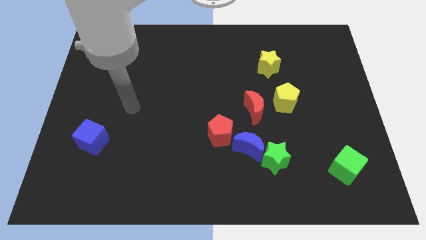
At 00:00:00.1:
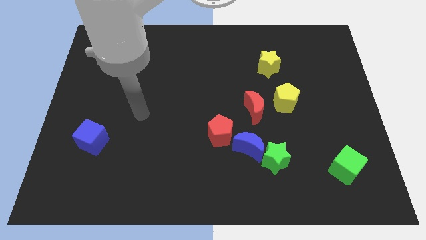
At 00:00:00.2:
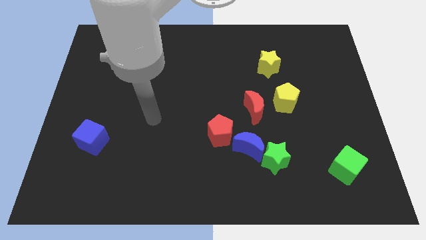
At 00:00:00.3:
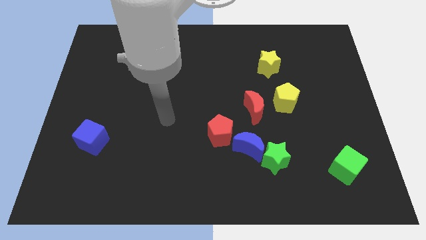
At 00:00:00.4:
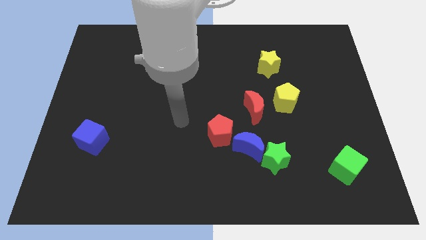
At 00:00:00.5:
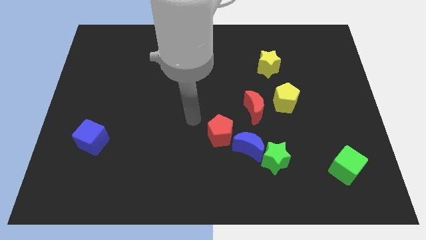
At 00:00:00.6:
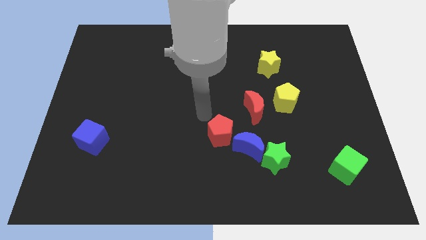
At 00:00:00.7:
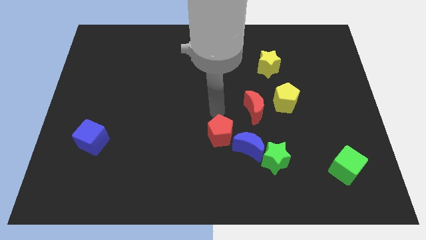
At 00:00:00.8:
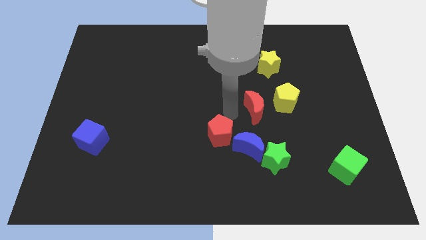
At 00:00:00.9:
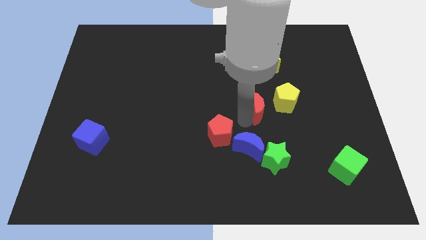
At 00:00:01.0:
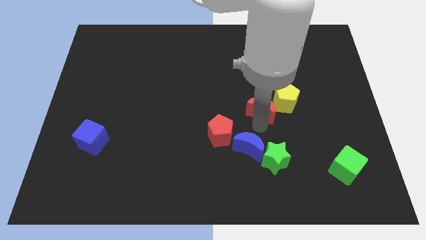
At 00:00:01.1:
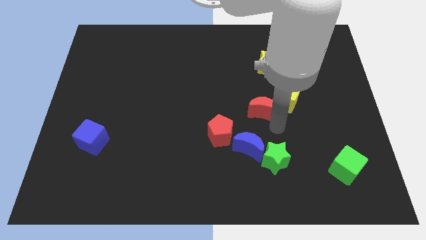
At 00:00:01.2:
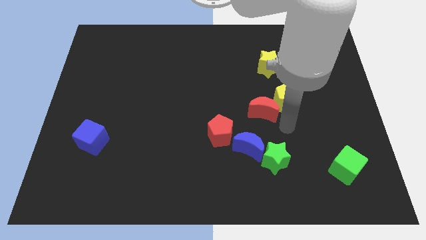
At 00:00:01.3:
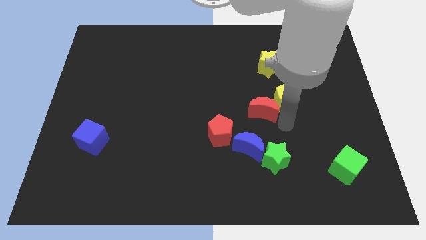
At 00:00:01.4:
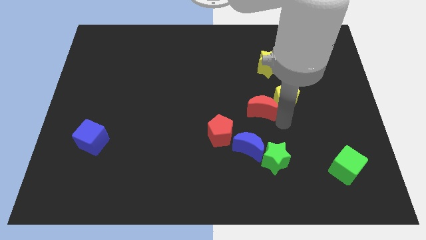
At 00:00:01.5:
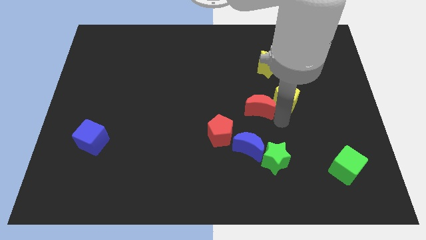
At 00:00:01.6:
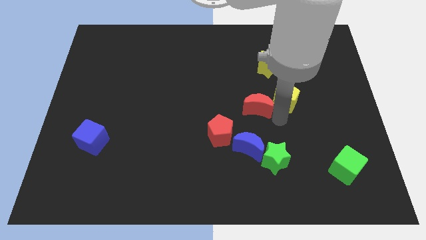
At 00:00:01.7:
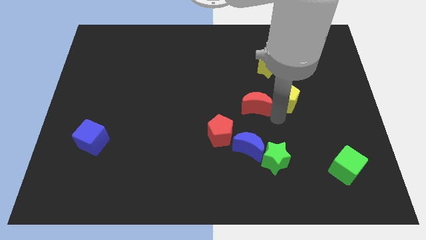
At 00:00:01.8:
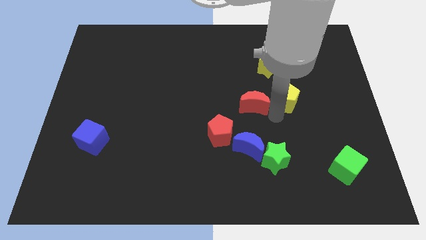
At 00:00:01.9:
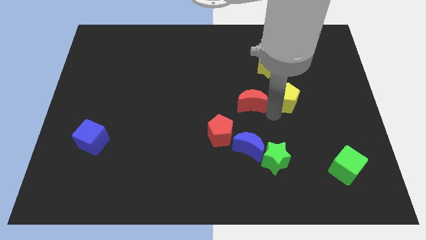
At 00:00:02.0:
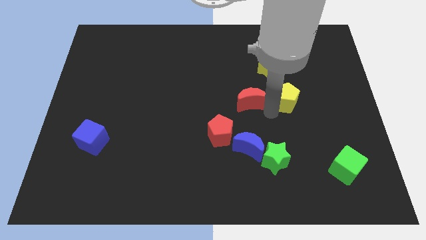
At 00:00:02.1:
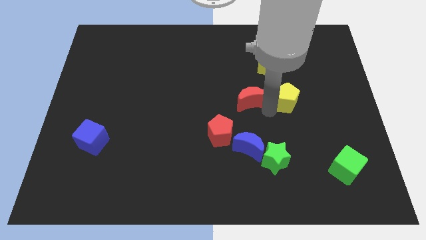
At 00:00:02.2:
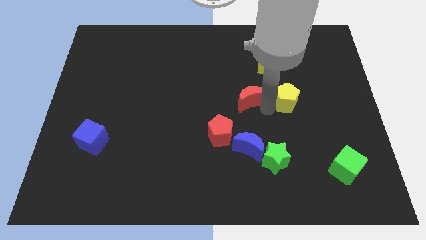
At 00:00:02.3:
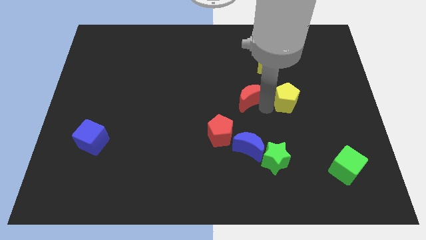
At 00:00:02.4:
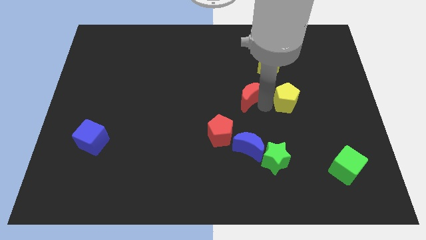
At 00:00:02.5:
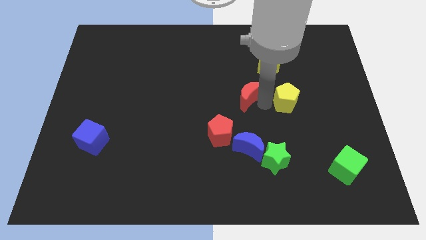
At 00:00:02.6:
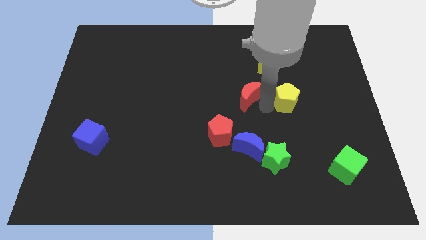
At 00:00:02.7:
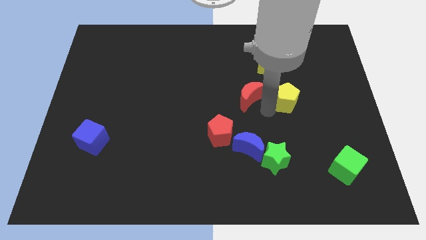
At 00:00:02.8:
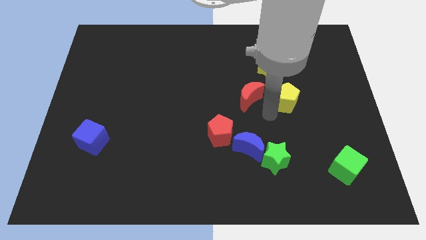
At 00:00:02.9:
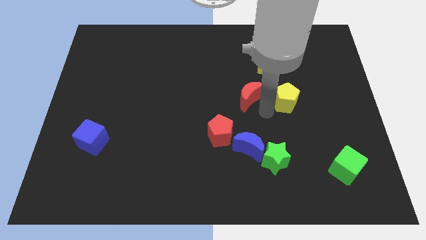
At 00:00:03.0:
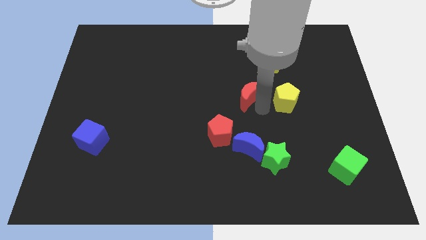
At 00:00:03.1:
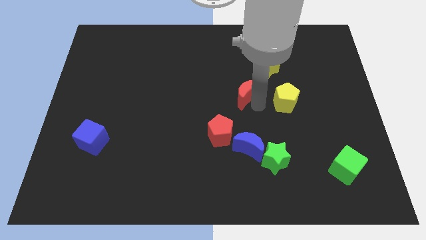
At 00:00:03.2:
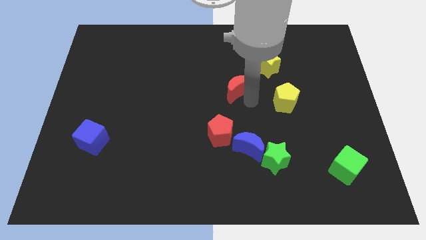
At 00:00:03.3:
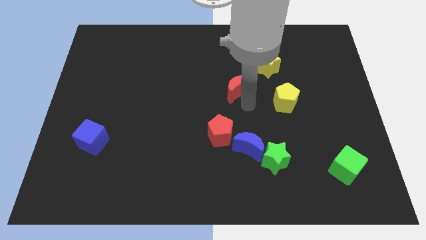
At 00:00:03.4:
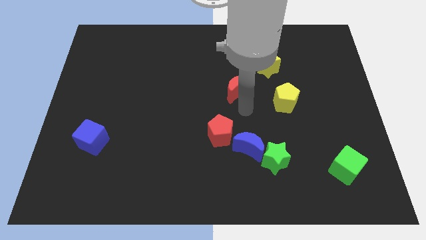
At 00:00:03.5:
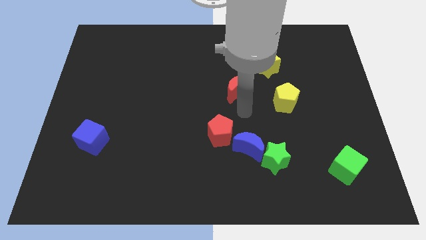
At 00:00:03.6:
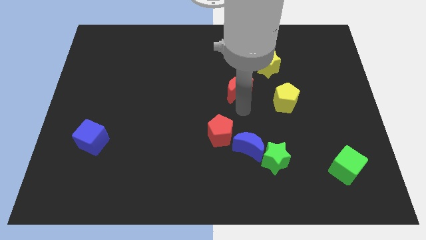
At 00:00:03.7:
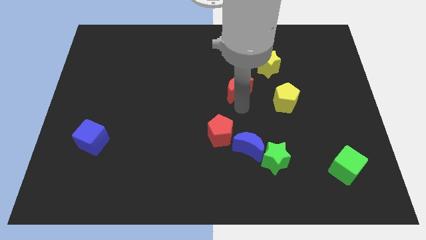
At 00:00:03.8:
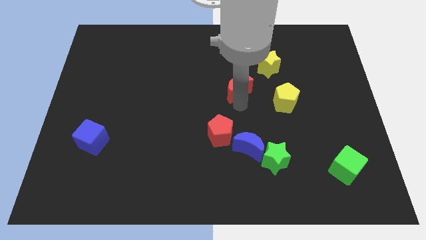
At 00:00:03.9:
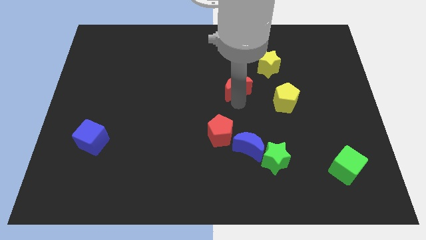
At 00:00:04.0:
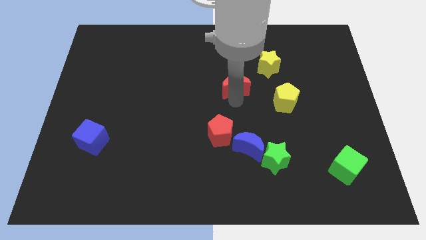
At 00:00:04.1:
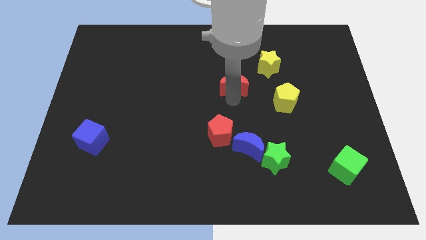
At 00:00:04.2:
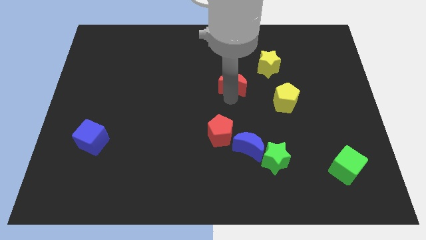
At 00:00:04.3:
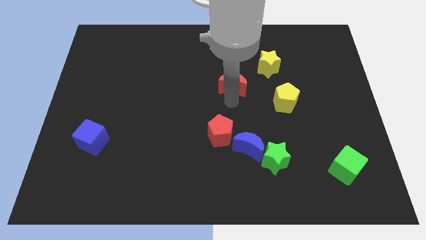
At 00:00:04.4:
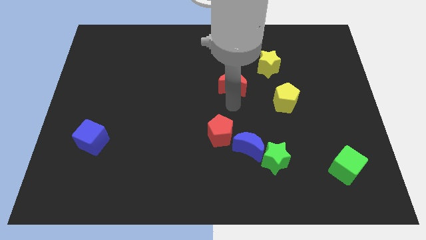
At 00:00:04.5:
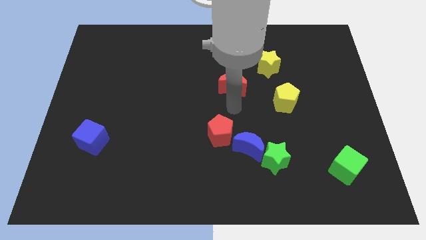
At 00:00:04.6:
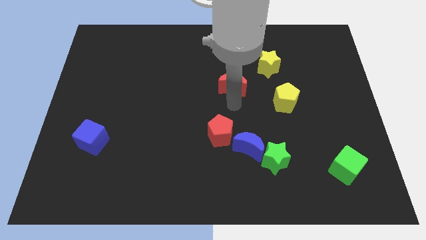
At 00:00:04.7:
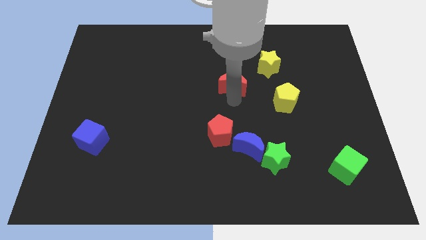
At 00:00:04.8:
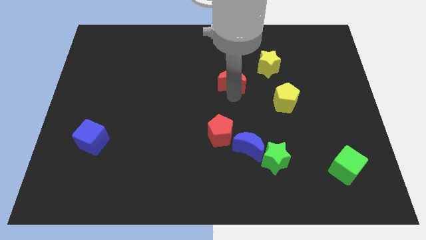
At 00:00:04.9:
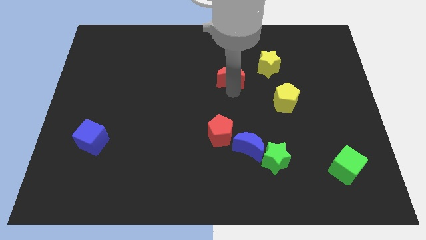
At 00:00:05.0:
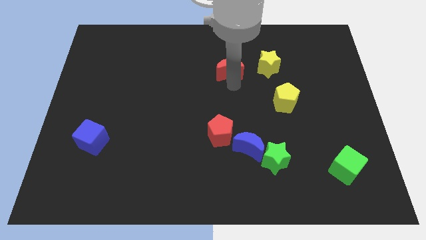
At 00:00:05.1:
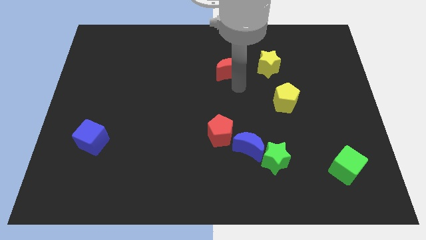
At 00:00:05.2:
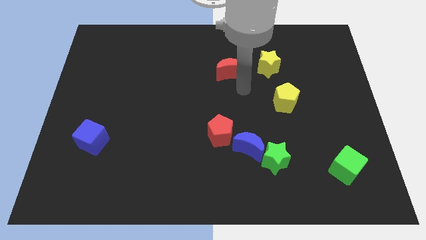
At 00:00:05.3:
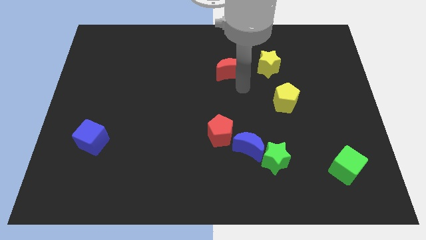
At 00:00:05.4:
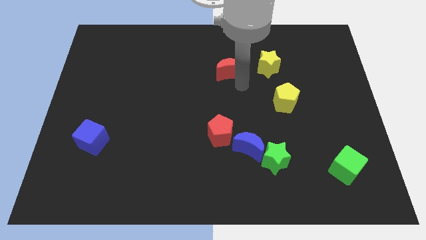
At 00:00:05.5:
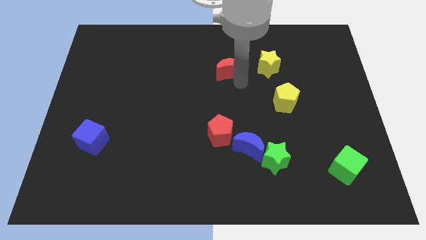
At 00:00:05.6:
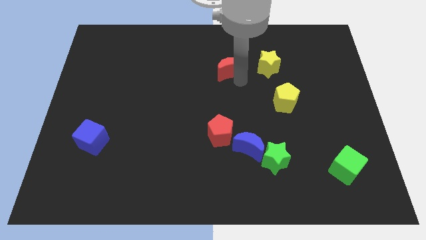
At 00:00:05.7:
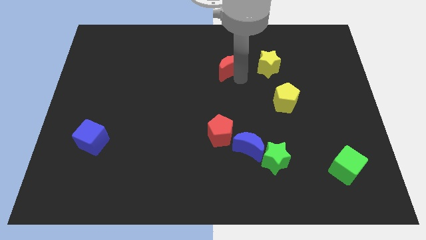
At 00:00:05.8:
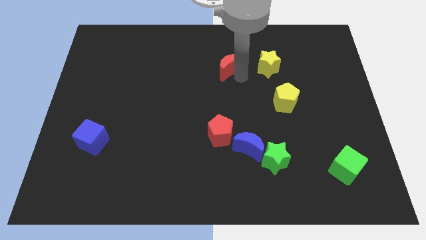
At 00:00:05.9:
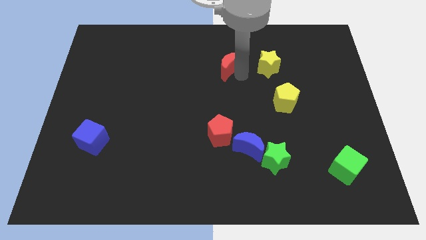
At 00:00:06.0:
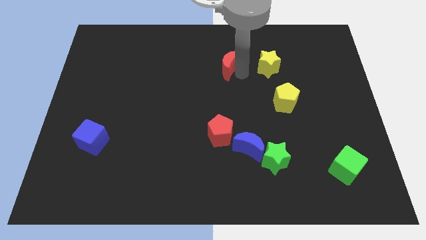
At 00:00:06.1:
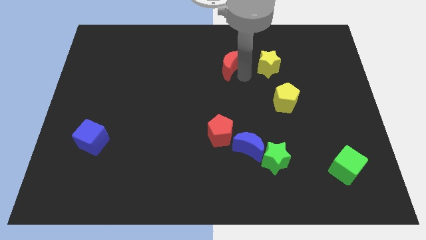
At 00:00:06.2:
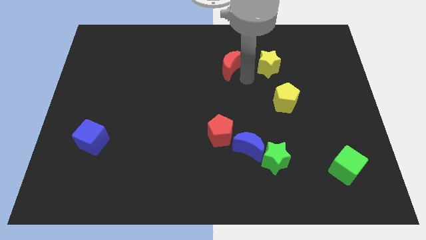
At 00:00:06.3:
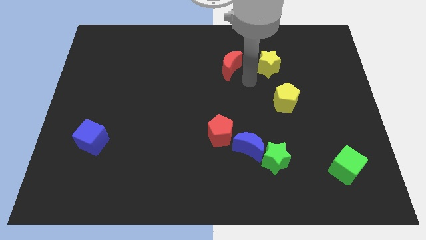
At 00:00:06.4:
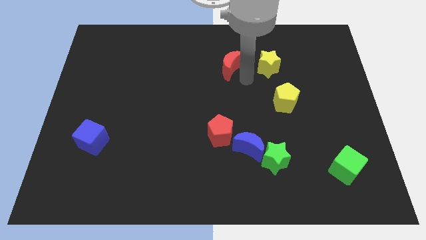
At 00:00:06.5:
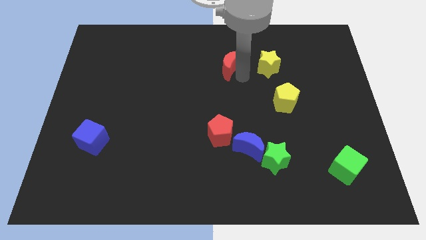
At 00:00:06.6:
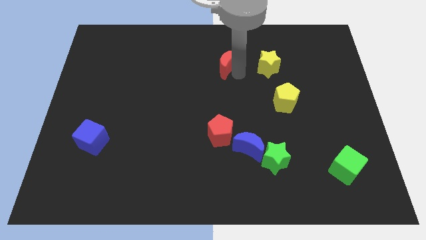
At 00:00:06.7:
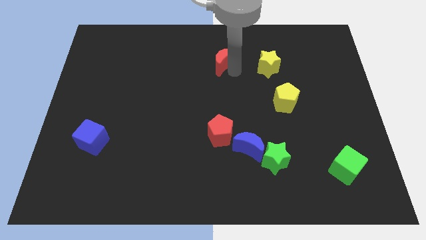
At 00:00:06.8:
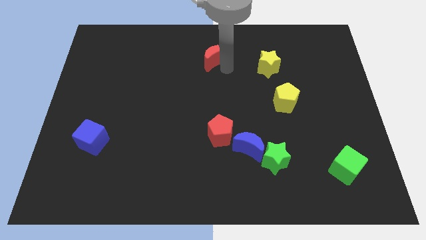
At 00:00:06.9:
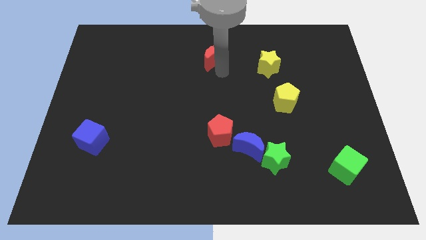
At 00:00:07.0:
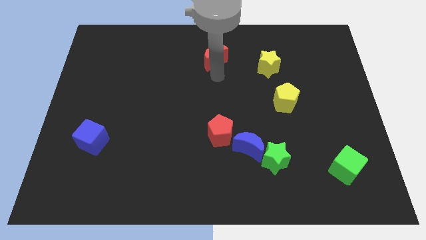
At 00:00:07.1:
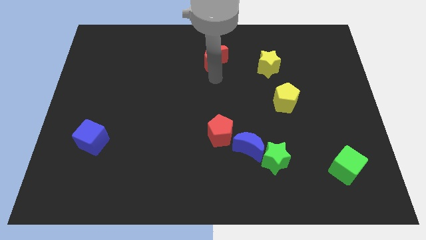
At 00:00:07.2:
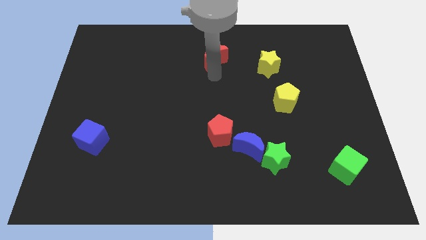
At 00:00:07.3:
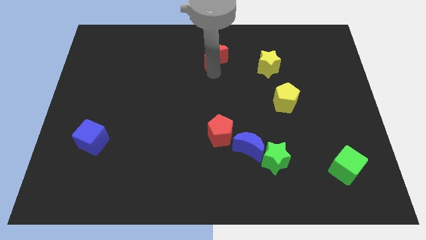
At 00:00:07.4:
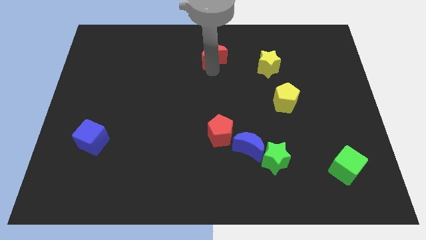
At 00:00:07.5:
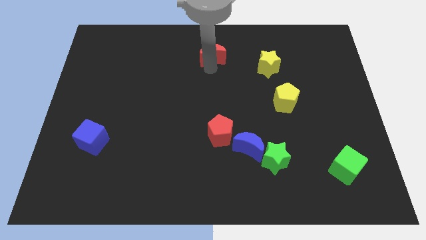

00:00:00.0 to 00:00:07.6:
move the red moon to the top side
